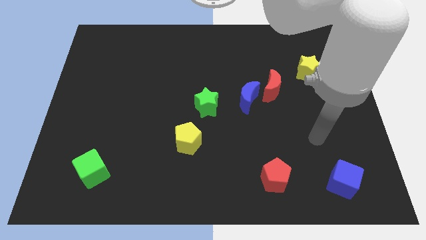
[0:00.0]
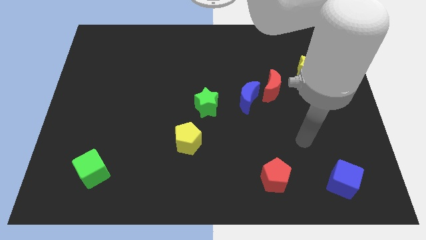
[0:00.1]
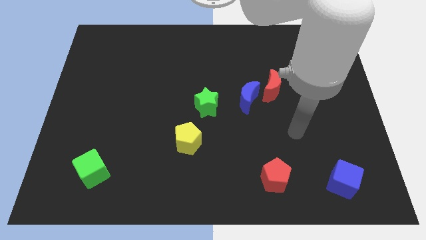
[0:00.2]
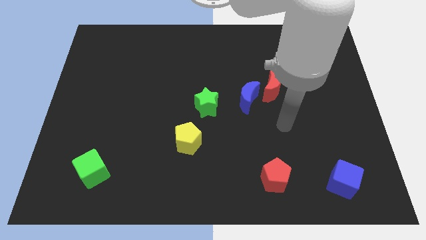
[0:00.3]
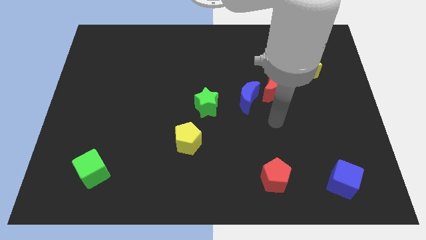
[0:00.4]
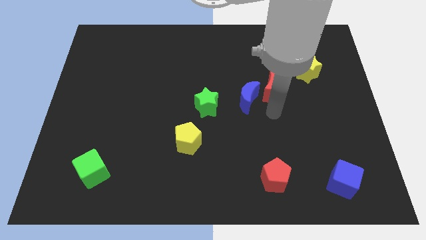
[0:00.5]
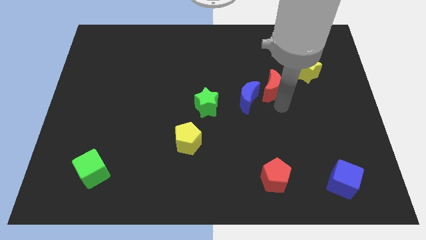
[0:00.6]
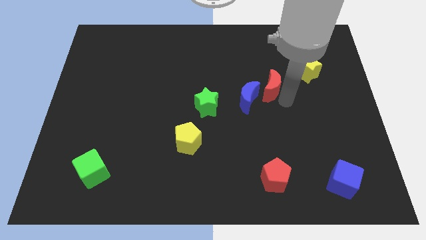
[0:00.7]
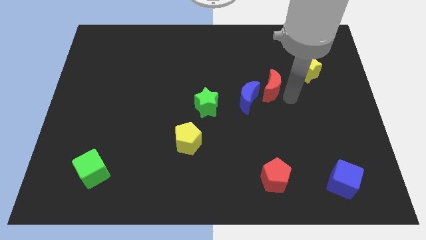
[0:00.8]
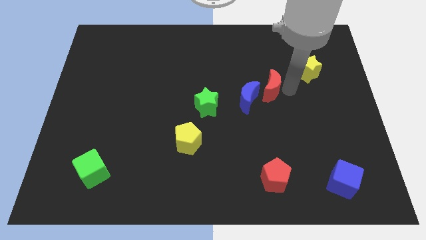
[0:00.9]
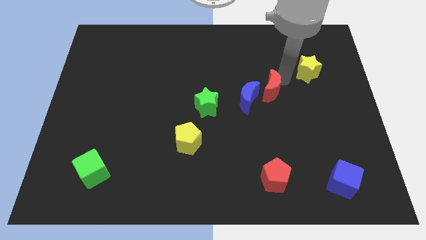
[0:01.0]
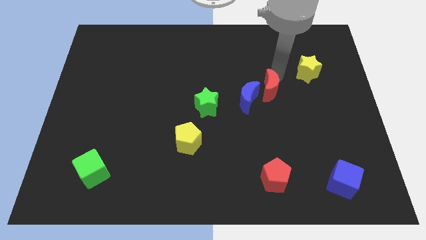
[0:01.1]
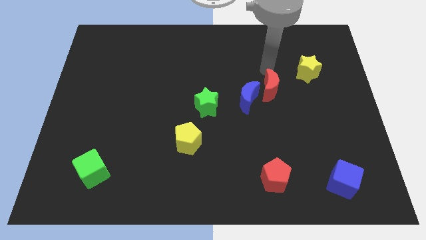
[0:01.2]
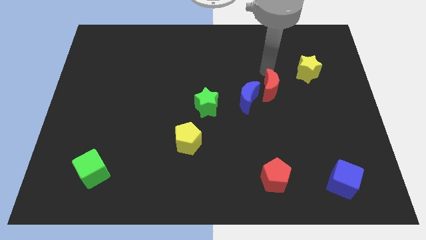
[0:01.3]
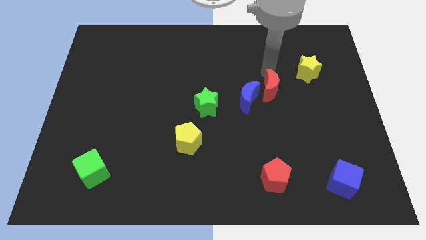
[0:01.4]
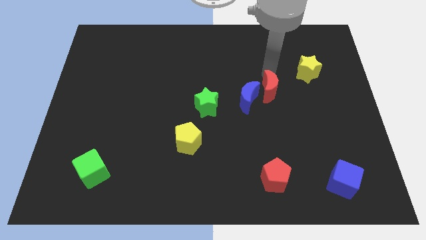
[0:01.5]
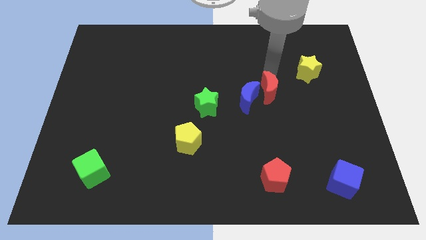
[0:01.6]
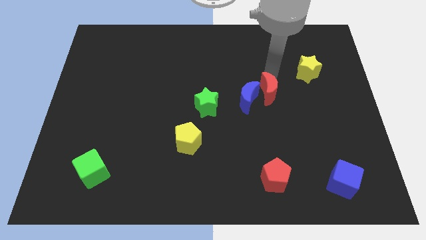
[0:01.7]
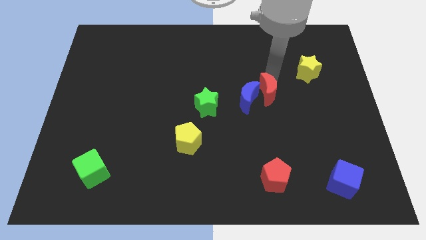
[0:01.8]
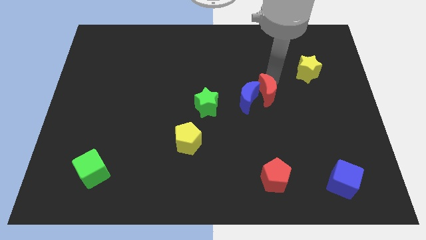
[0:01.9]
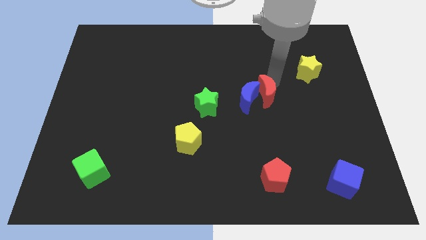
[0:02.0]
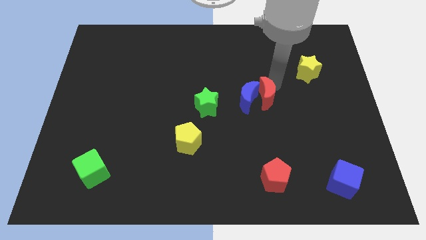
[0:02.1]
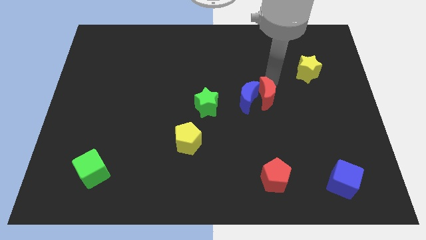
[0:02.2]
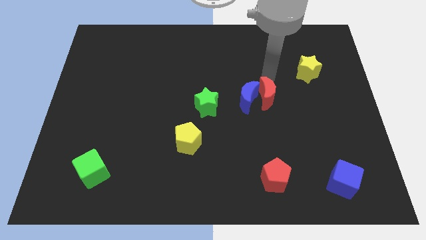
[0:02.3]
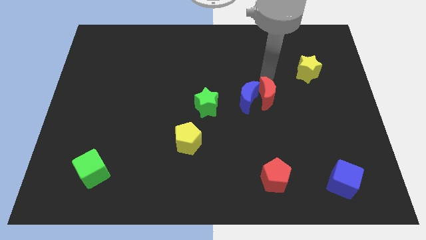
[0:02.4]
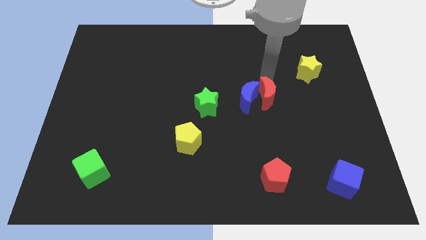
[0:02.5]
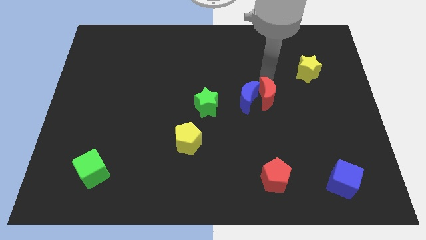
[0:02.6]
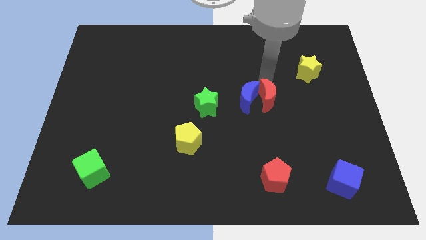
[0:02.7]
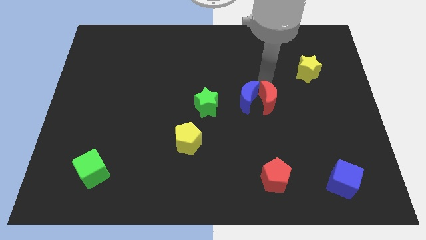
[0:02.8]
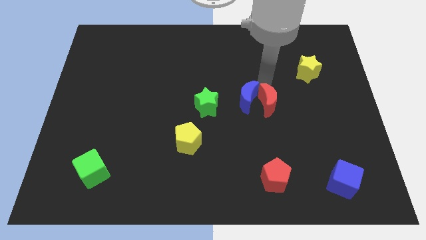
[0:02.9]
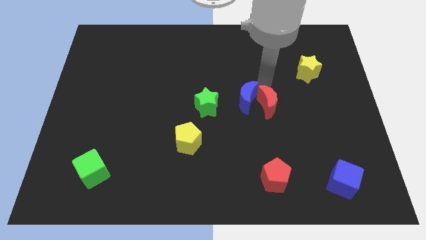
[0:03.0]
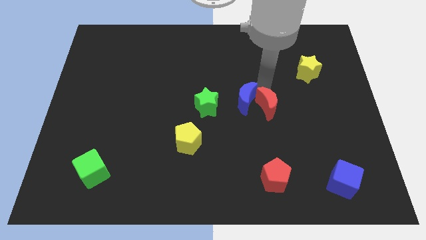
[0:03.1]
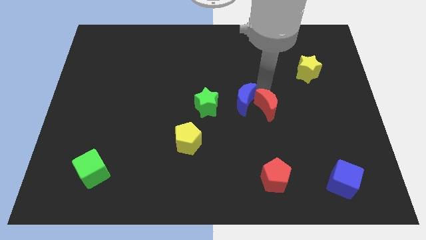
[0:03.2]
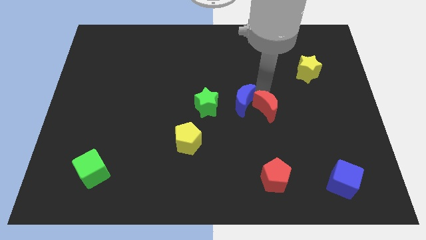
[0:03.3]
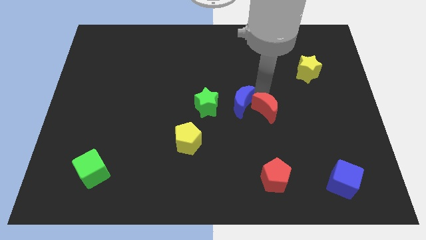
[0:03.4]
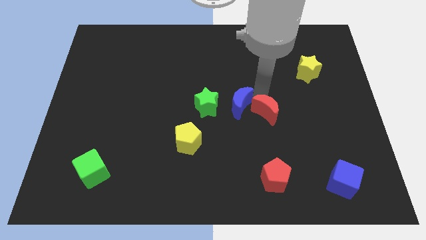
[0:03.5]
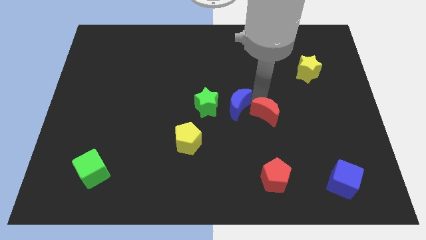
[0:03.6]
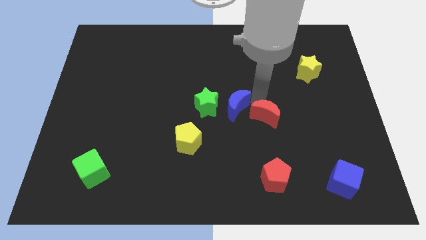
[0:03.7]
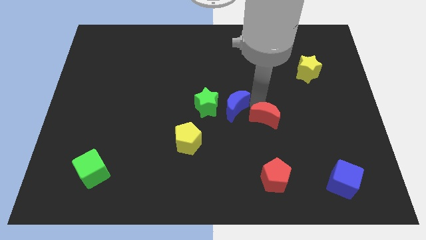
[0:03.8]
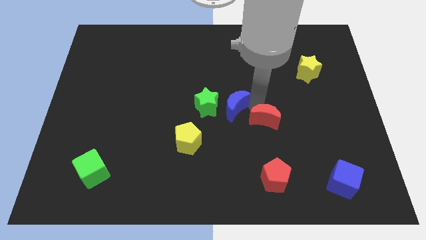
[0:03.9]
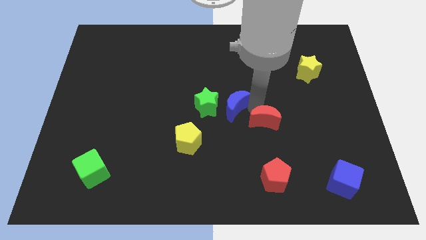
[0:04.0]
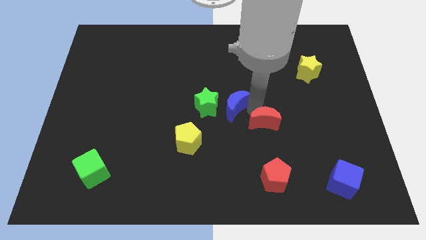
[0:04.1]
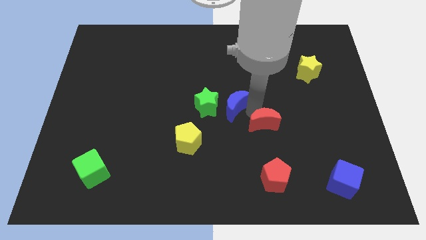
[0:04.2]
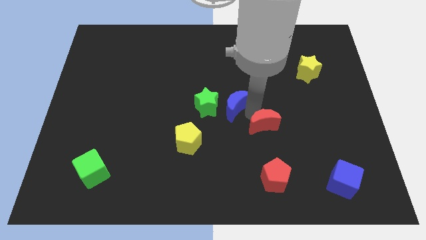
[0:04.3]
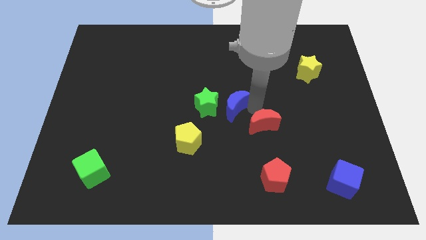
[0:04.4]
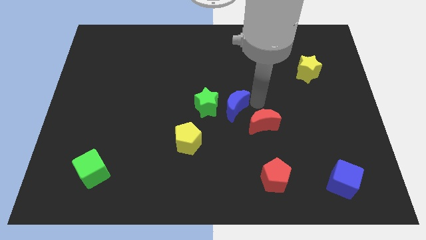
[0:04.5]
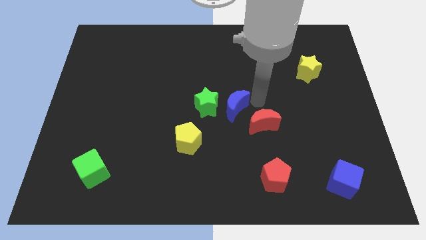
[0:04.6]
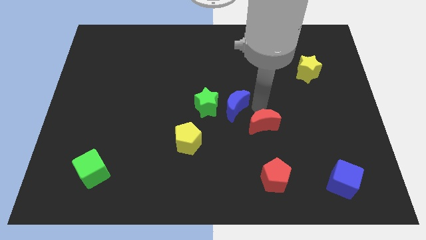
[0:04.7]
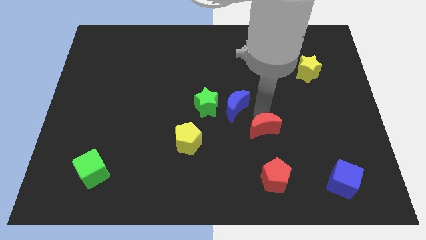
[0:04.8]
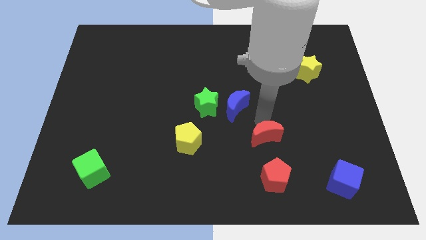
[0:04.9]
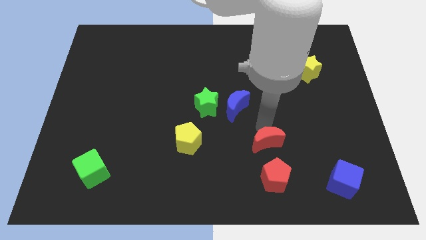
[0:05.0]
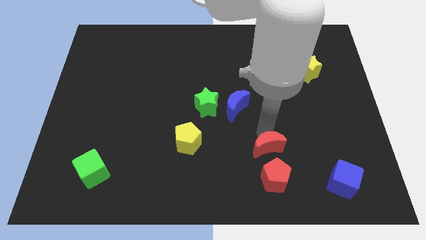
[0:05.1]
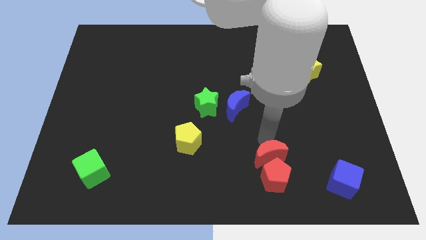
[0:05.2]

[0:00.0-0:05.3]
slide the red moon close to the red pentagon

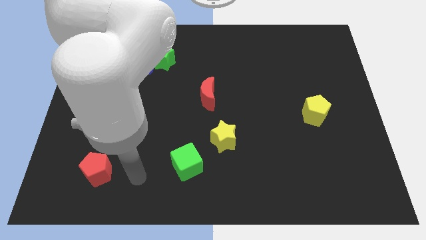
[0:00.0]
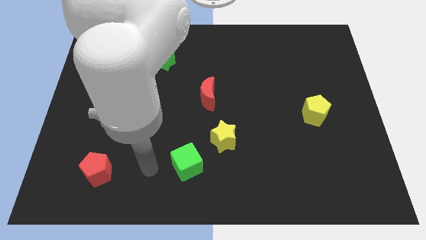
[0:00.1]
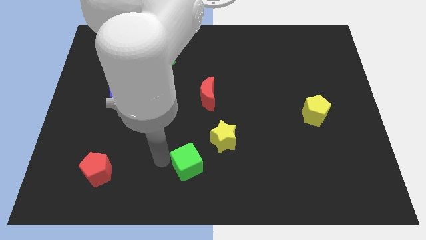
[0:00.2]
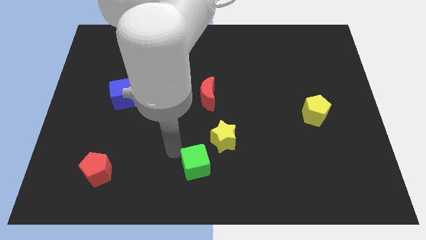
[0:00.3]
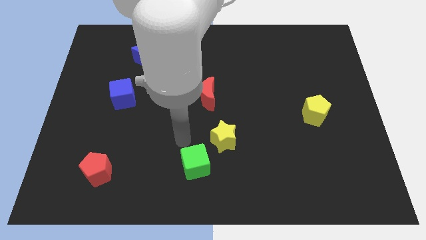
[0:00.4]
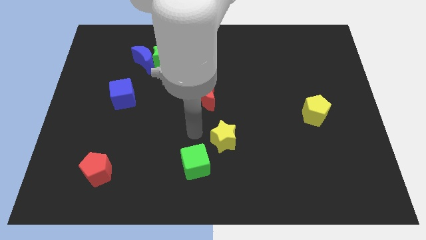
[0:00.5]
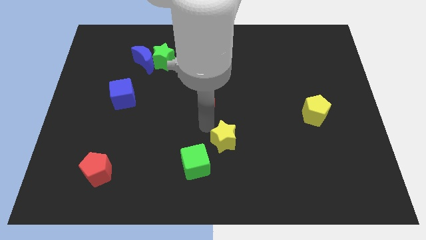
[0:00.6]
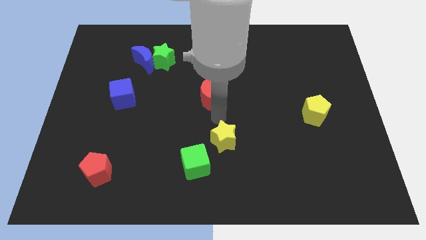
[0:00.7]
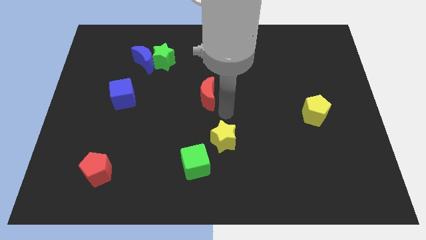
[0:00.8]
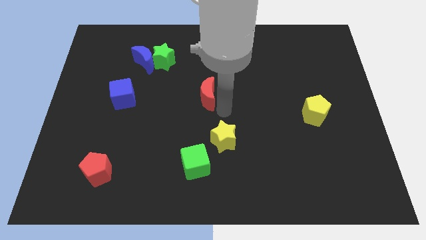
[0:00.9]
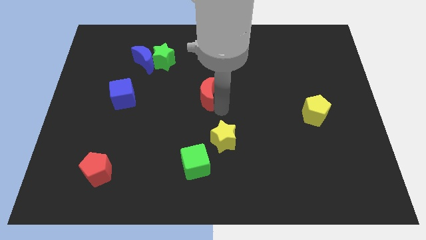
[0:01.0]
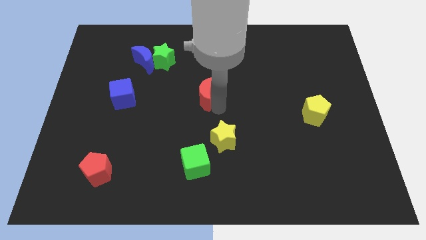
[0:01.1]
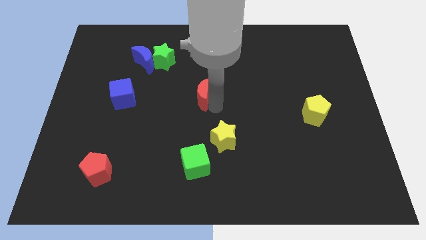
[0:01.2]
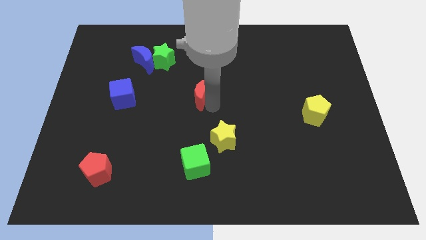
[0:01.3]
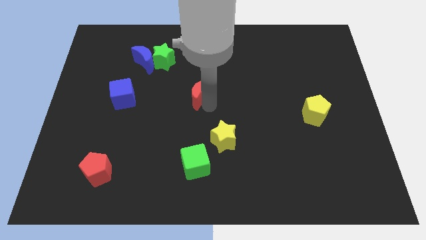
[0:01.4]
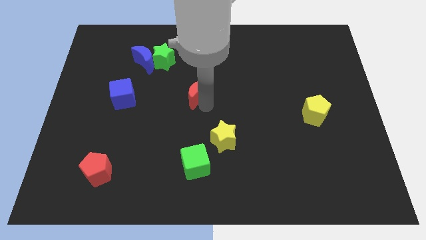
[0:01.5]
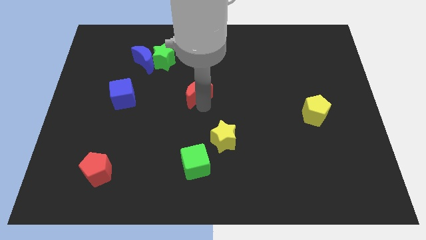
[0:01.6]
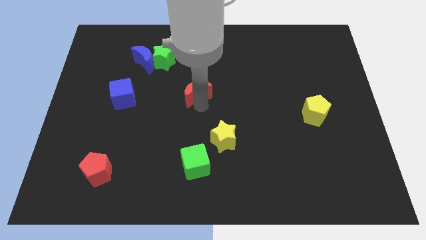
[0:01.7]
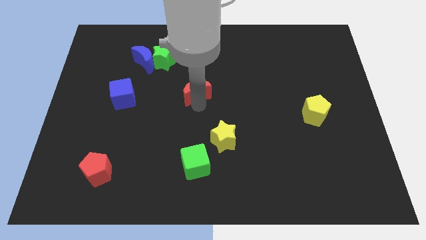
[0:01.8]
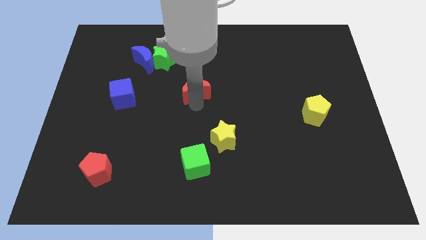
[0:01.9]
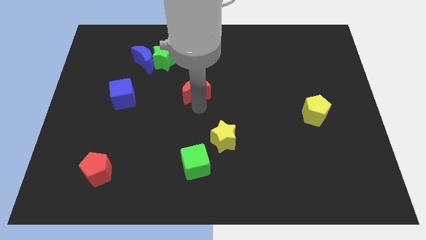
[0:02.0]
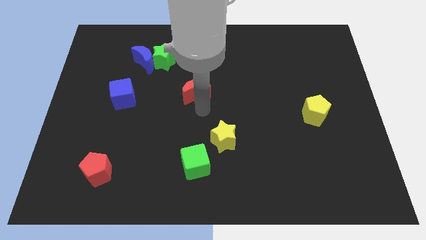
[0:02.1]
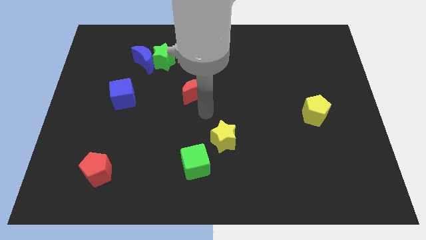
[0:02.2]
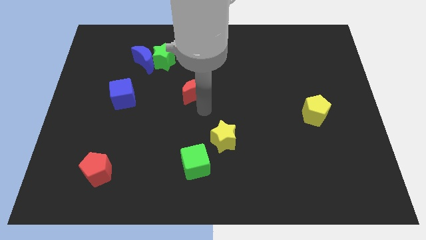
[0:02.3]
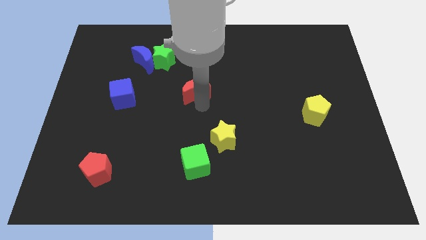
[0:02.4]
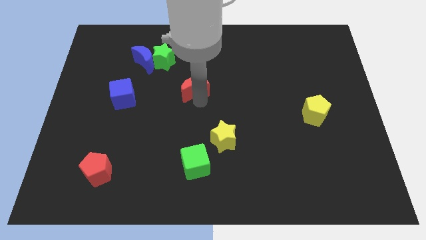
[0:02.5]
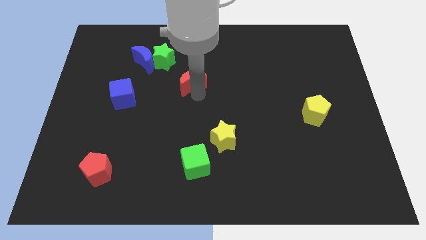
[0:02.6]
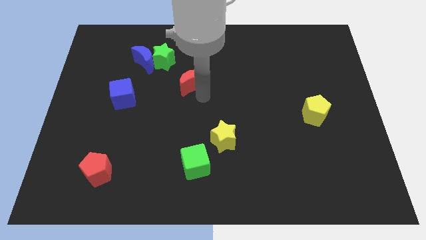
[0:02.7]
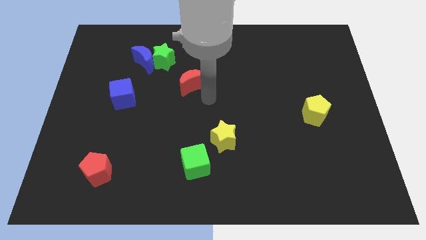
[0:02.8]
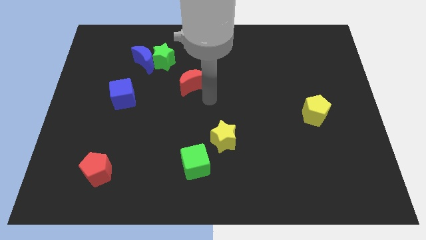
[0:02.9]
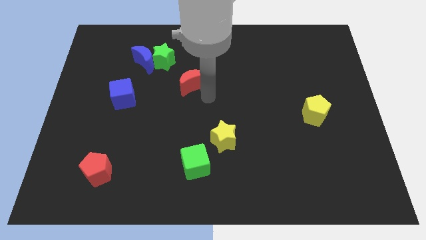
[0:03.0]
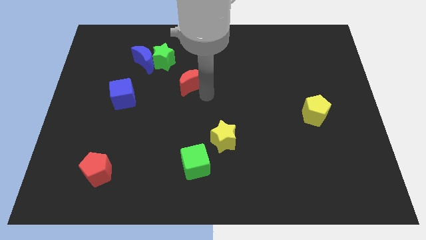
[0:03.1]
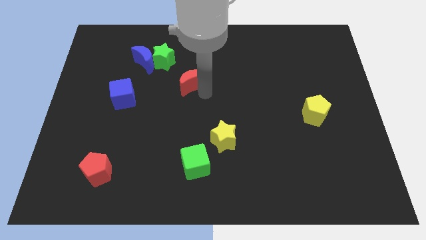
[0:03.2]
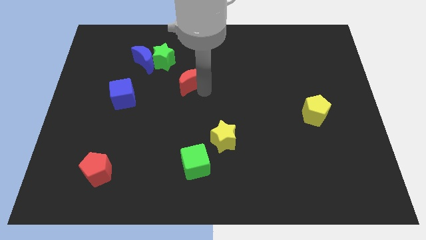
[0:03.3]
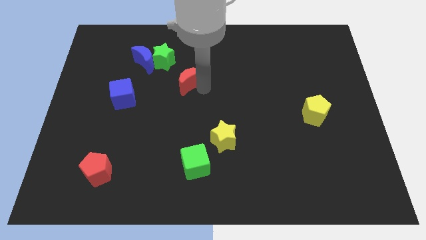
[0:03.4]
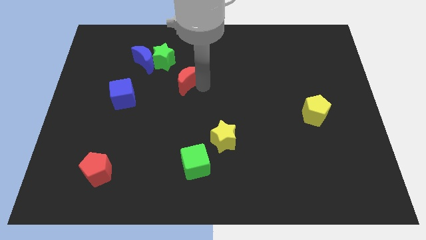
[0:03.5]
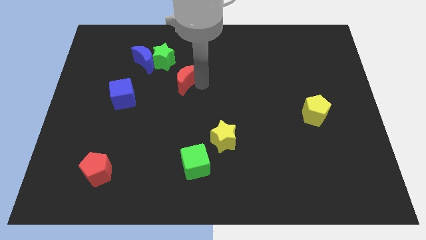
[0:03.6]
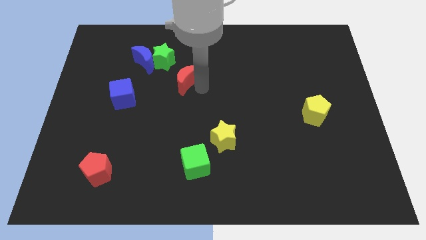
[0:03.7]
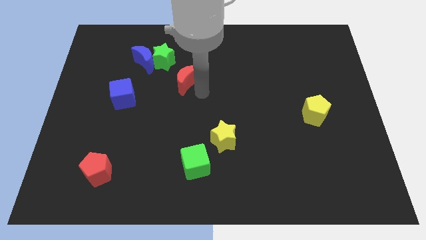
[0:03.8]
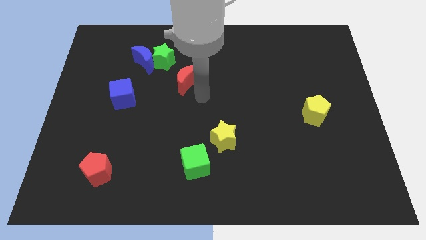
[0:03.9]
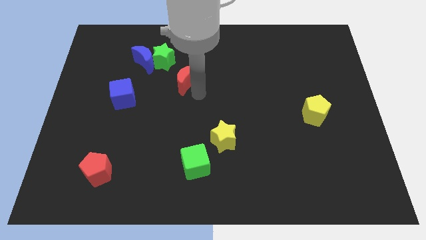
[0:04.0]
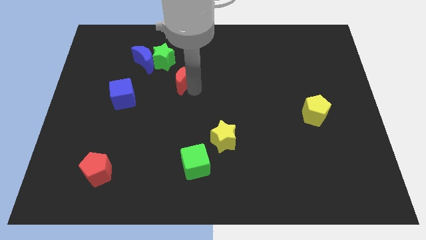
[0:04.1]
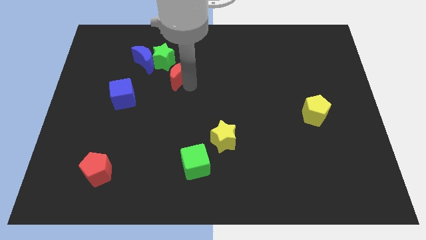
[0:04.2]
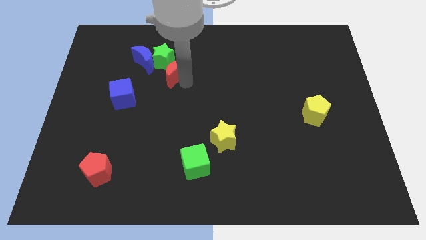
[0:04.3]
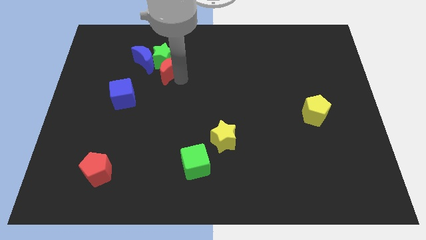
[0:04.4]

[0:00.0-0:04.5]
push the red moon close to the green star
